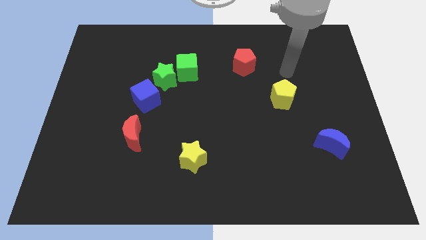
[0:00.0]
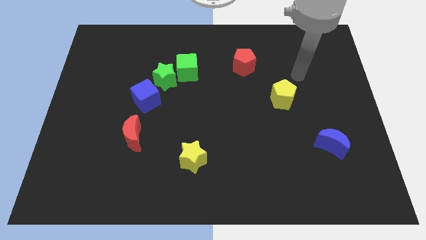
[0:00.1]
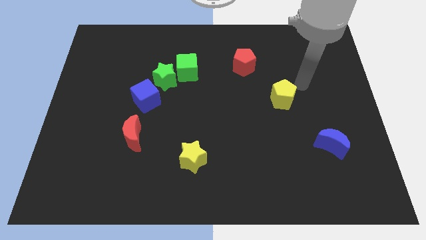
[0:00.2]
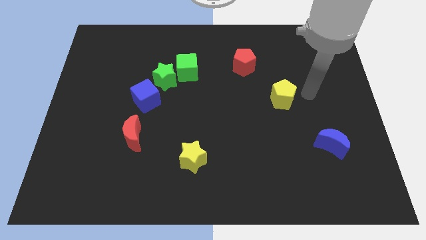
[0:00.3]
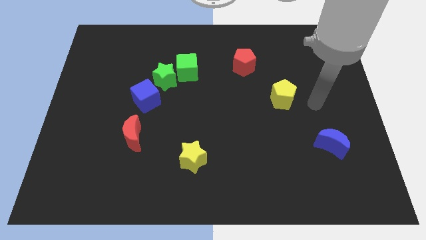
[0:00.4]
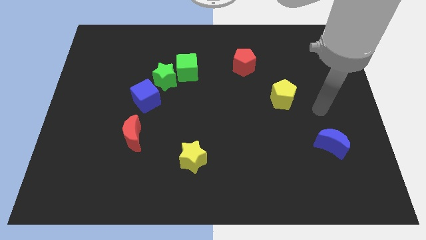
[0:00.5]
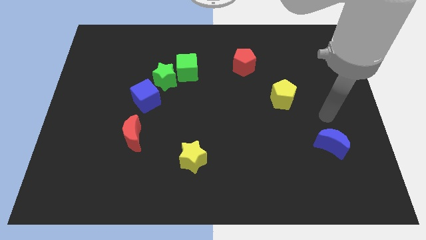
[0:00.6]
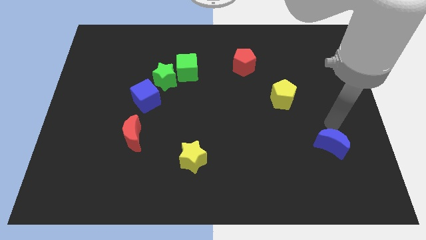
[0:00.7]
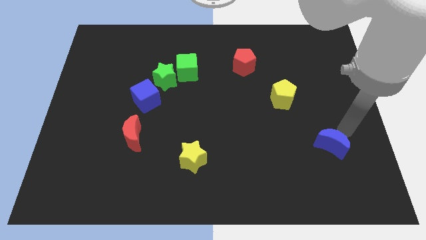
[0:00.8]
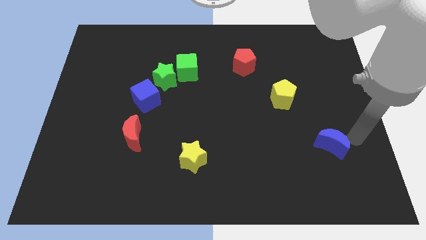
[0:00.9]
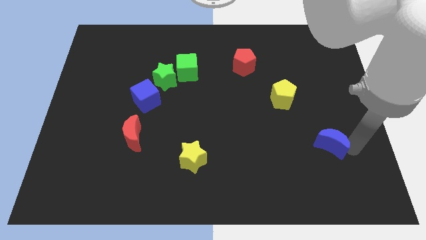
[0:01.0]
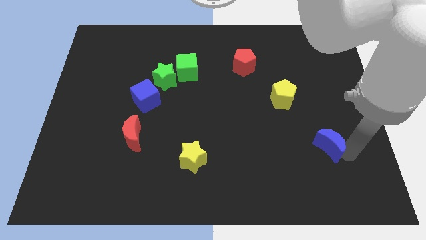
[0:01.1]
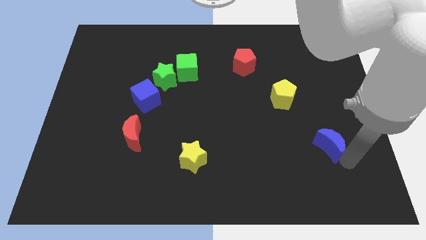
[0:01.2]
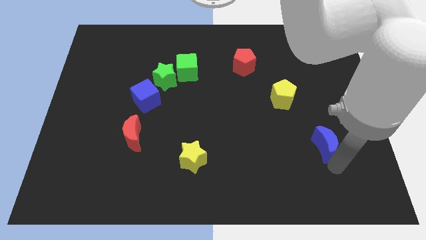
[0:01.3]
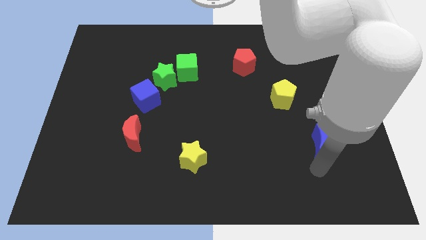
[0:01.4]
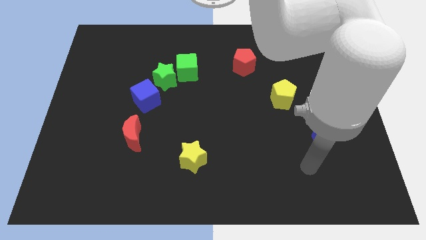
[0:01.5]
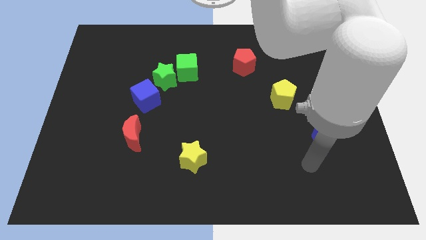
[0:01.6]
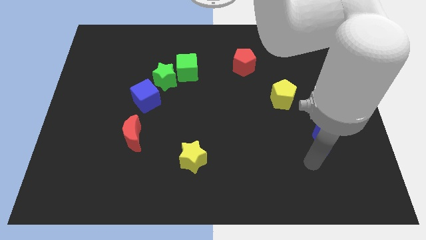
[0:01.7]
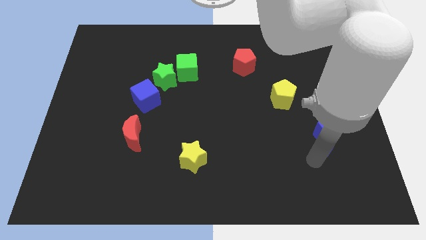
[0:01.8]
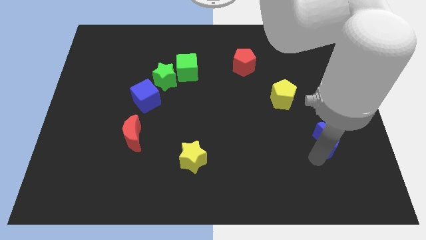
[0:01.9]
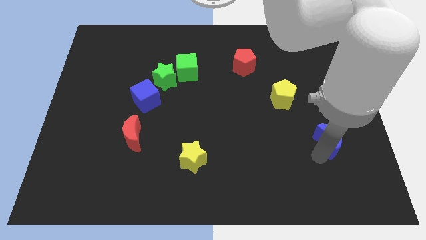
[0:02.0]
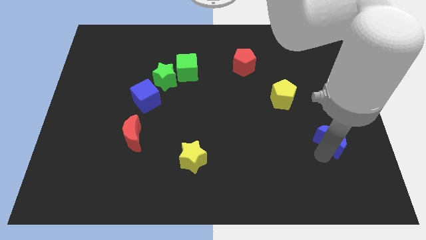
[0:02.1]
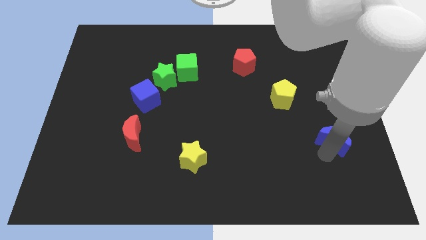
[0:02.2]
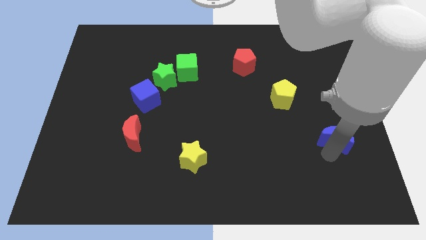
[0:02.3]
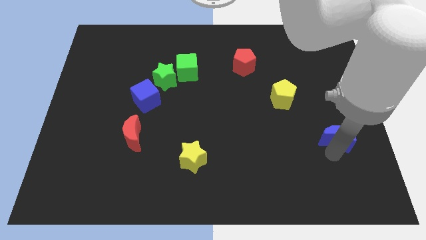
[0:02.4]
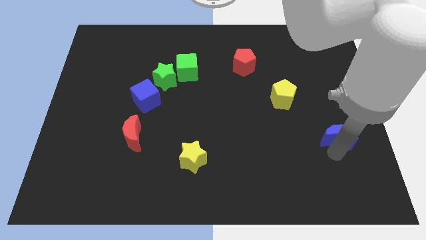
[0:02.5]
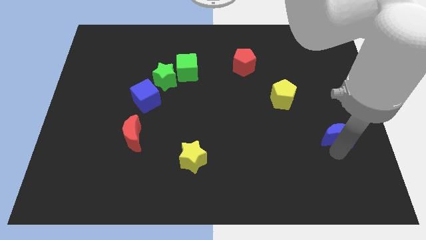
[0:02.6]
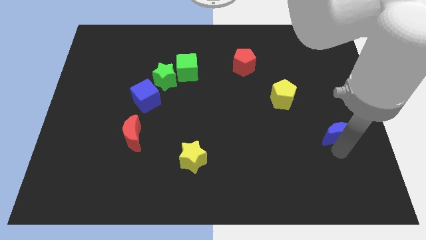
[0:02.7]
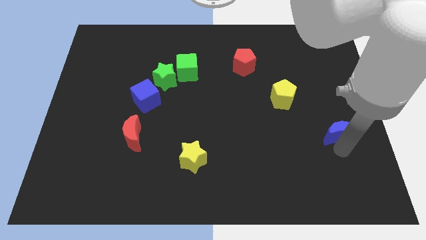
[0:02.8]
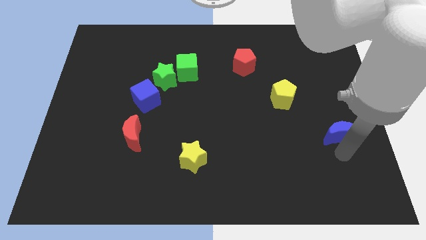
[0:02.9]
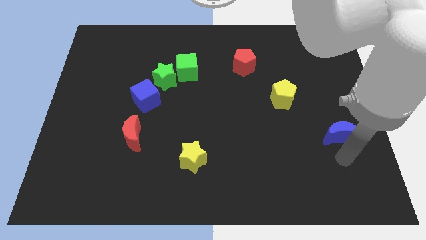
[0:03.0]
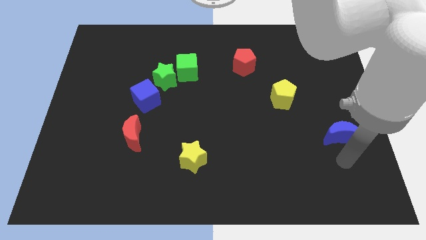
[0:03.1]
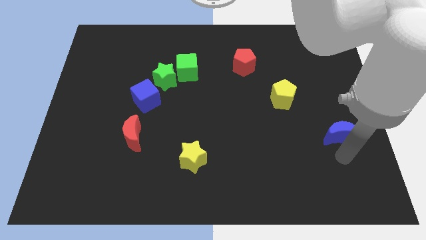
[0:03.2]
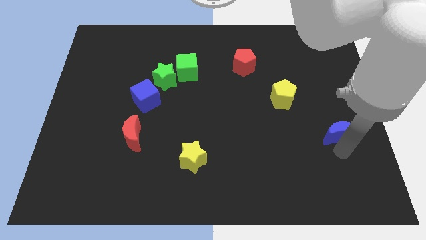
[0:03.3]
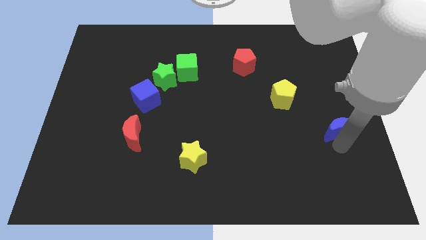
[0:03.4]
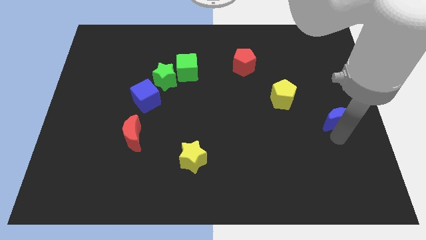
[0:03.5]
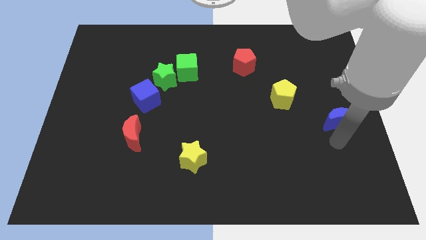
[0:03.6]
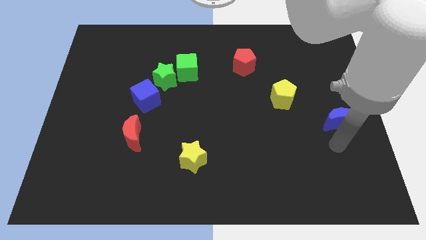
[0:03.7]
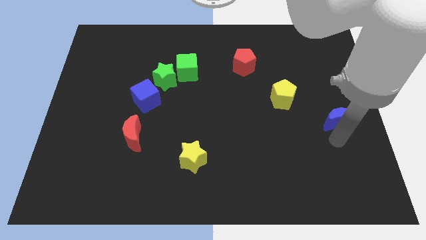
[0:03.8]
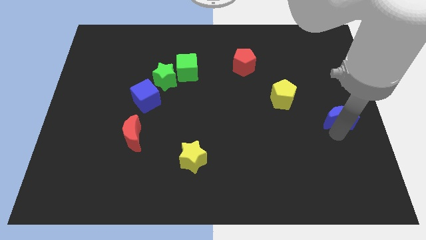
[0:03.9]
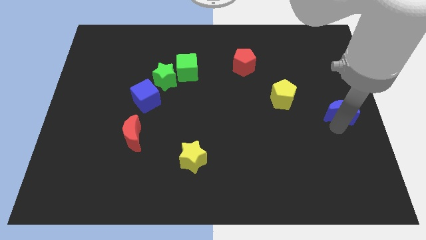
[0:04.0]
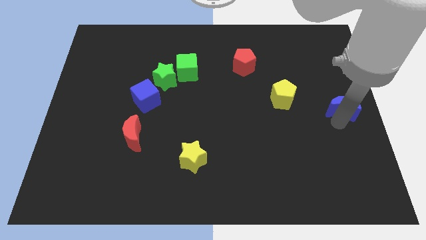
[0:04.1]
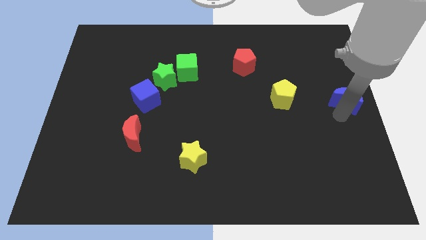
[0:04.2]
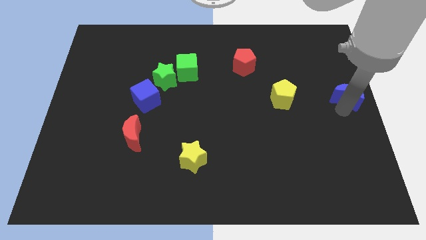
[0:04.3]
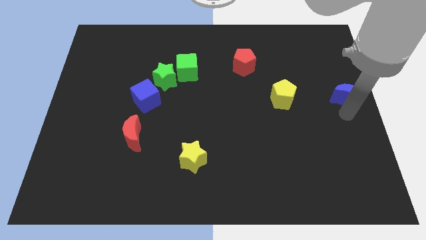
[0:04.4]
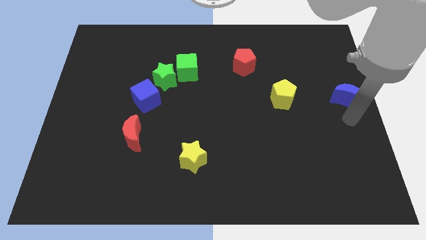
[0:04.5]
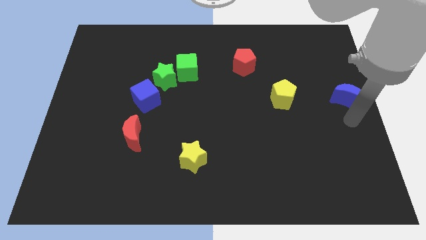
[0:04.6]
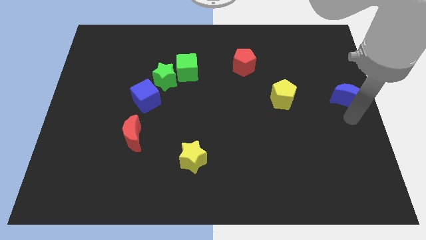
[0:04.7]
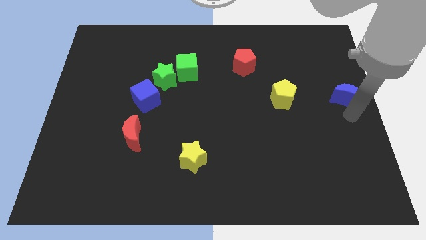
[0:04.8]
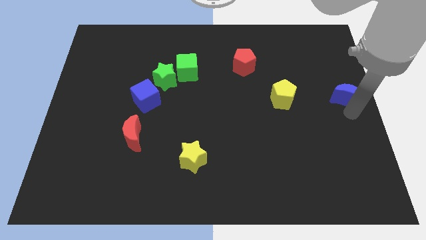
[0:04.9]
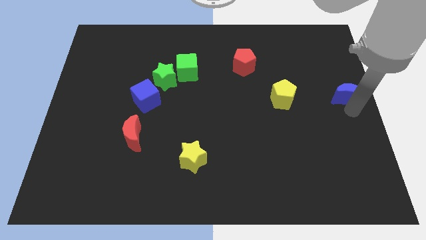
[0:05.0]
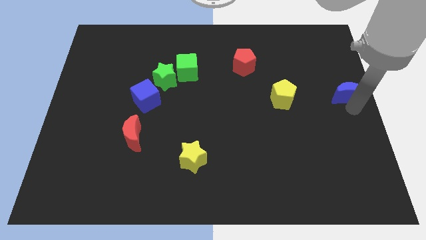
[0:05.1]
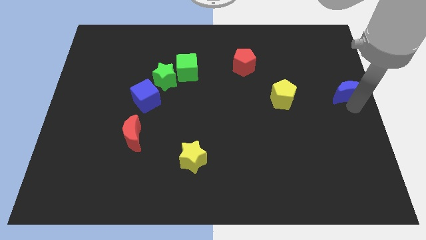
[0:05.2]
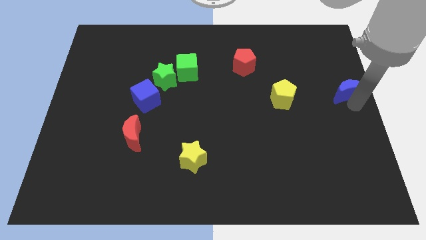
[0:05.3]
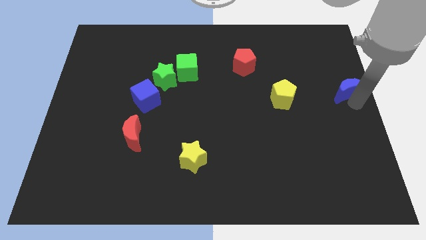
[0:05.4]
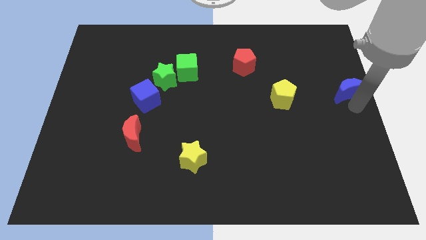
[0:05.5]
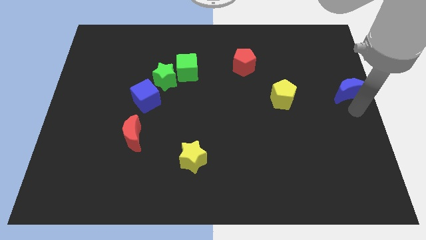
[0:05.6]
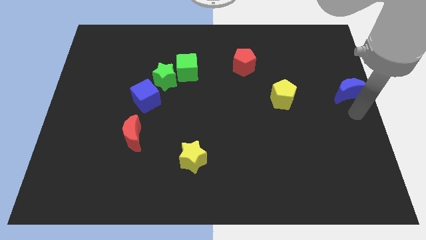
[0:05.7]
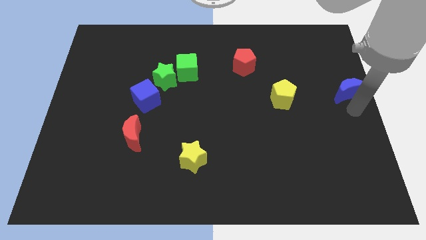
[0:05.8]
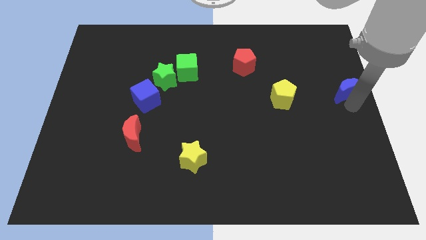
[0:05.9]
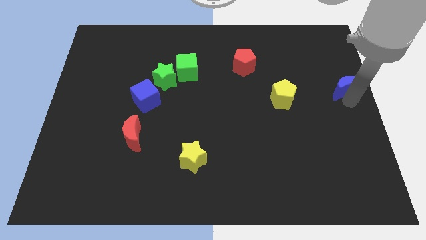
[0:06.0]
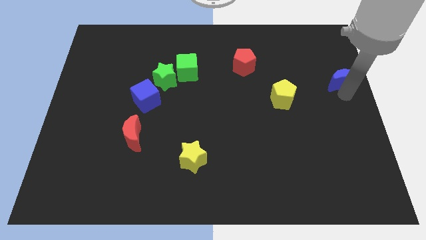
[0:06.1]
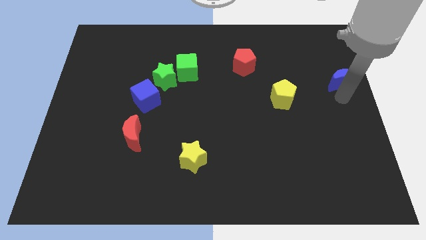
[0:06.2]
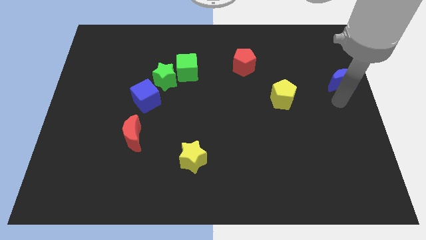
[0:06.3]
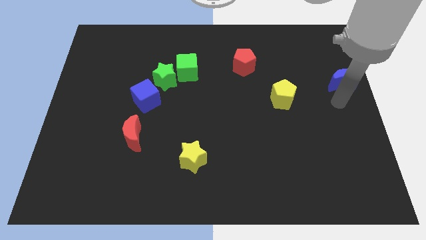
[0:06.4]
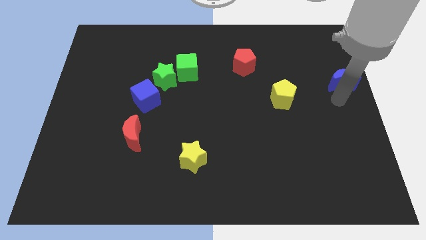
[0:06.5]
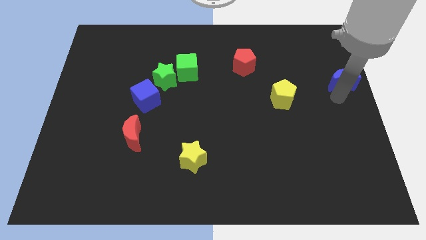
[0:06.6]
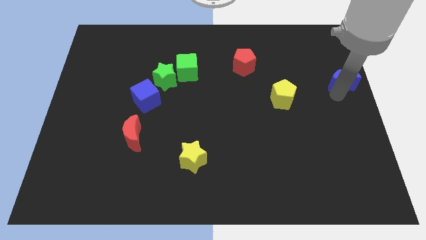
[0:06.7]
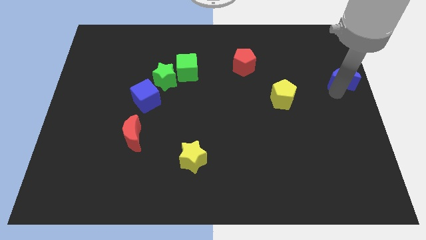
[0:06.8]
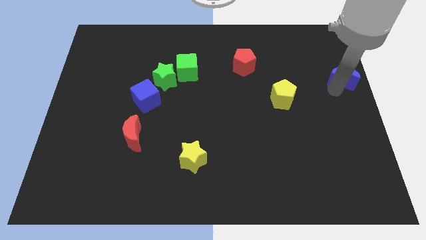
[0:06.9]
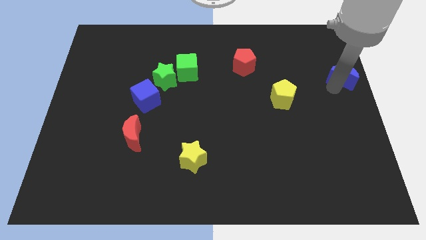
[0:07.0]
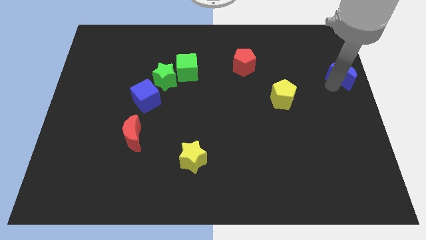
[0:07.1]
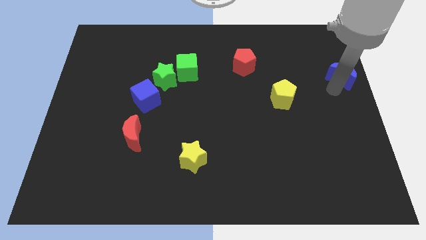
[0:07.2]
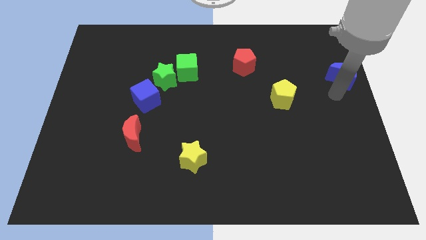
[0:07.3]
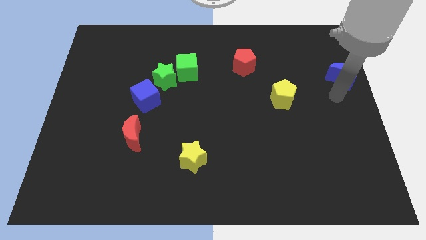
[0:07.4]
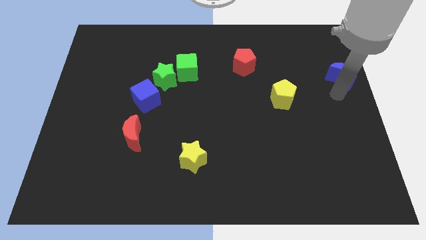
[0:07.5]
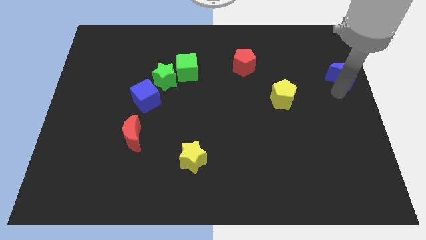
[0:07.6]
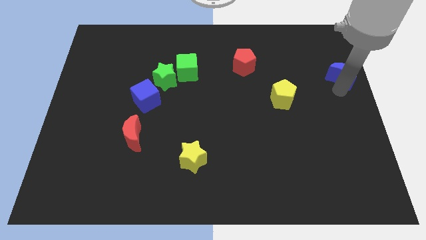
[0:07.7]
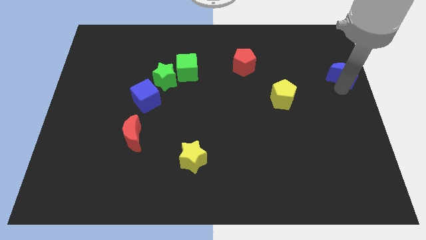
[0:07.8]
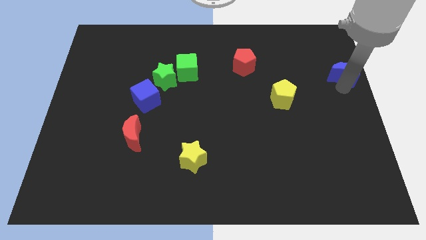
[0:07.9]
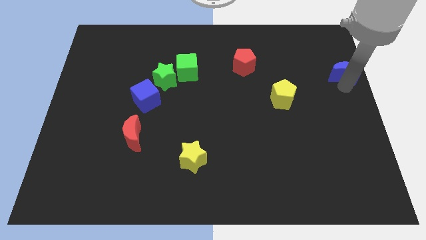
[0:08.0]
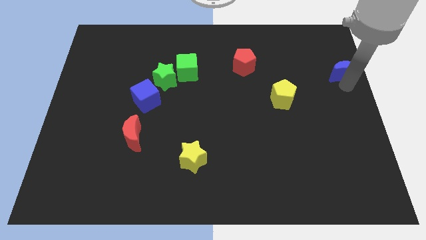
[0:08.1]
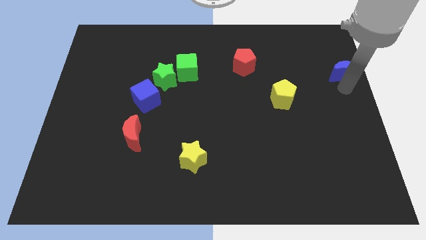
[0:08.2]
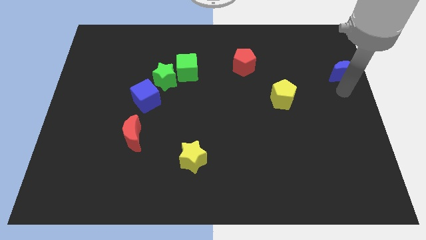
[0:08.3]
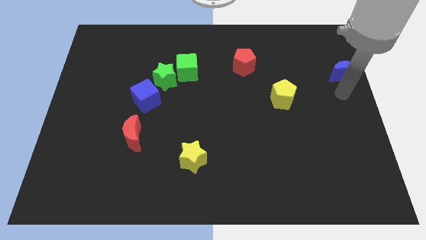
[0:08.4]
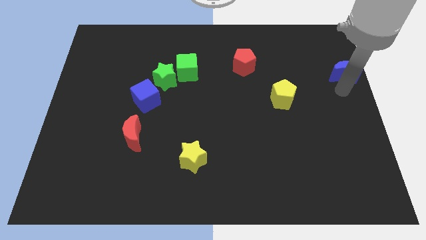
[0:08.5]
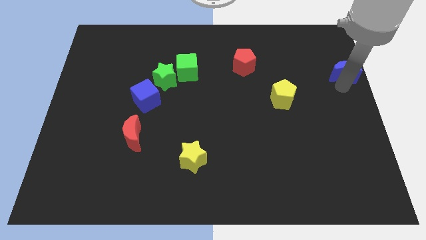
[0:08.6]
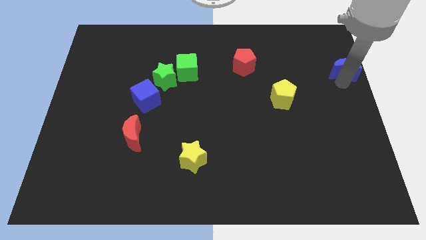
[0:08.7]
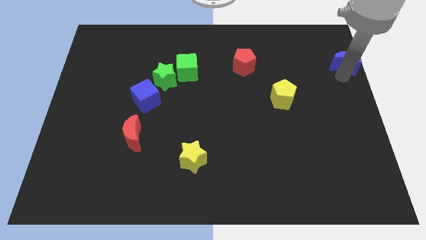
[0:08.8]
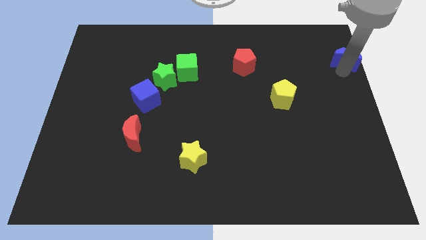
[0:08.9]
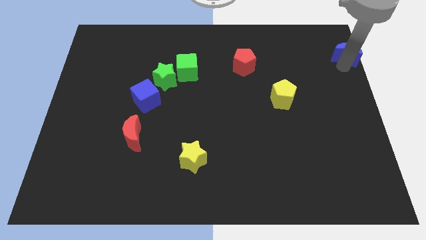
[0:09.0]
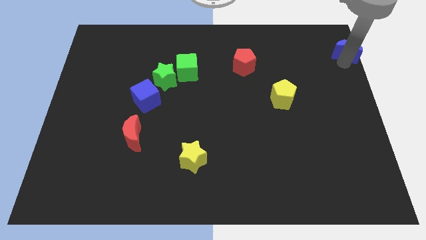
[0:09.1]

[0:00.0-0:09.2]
move the blue moon to the top right of the board
